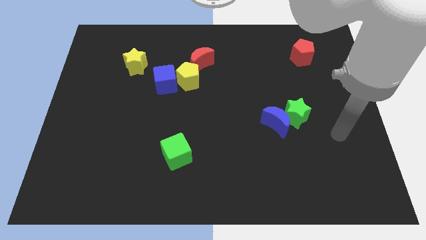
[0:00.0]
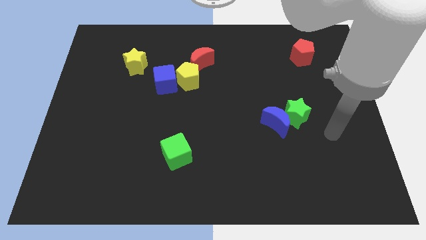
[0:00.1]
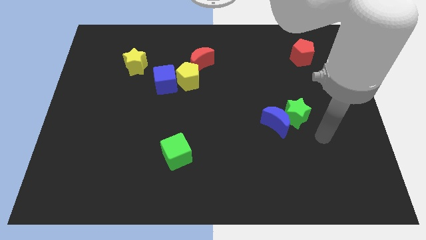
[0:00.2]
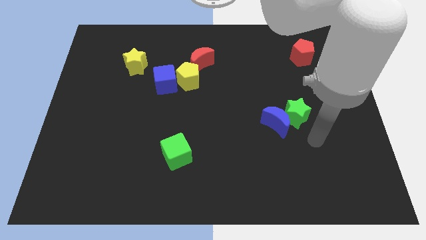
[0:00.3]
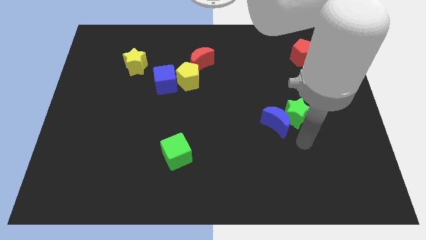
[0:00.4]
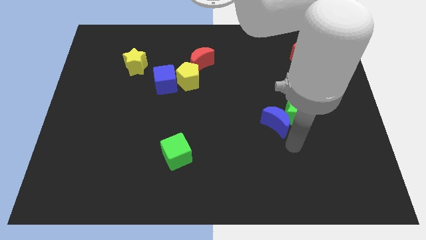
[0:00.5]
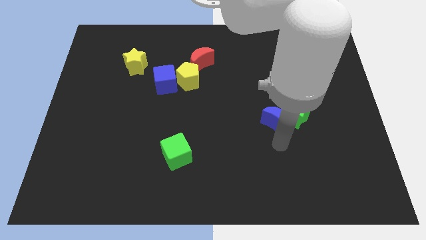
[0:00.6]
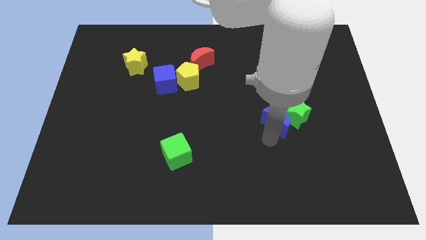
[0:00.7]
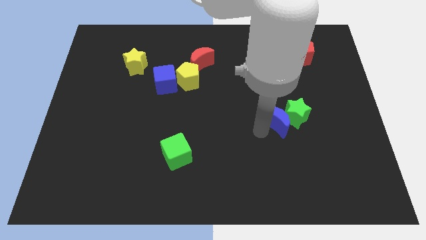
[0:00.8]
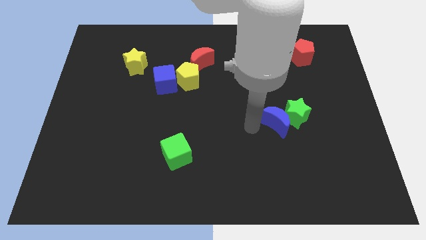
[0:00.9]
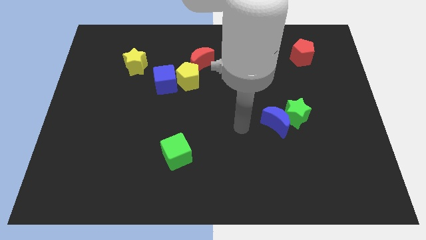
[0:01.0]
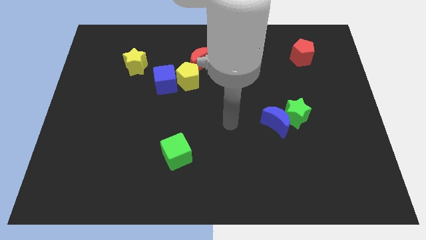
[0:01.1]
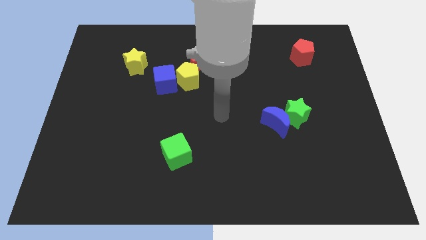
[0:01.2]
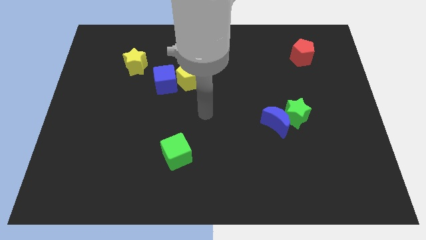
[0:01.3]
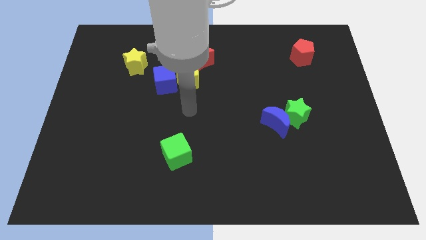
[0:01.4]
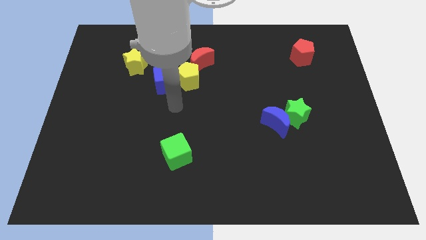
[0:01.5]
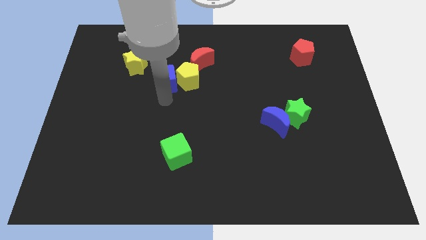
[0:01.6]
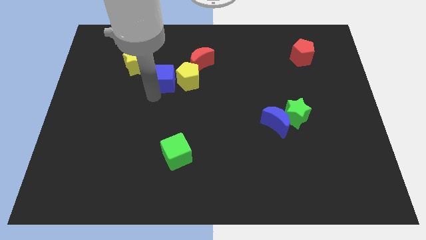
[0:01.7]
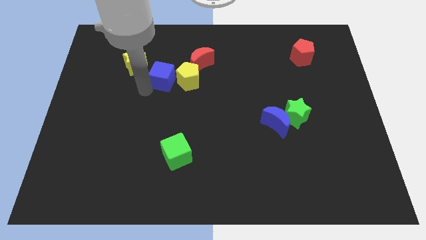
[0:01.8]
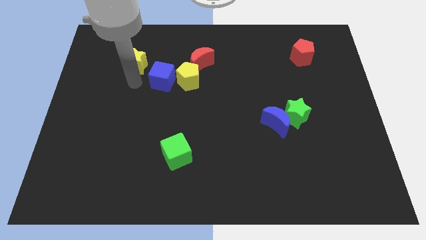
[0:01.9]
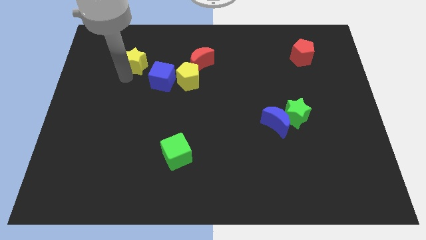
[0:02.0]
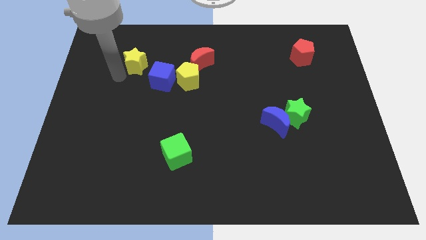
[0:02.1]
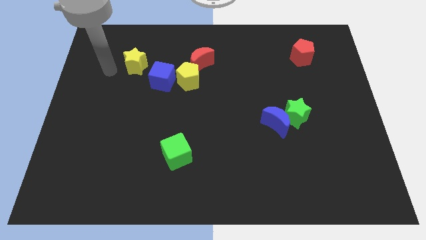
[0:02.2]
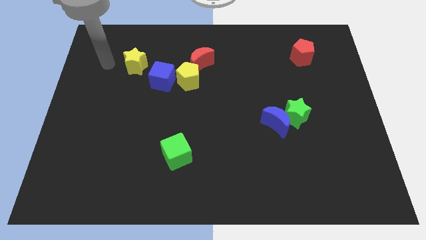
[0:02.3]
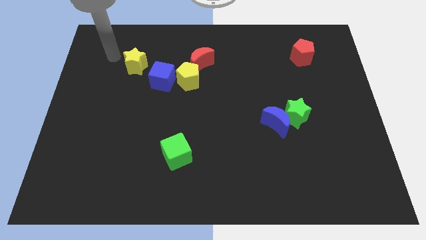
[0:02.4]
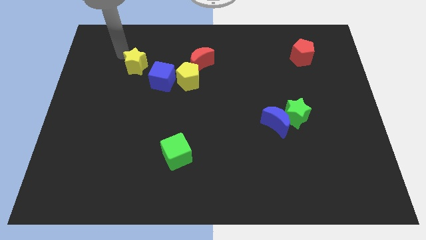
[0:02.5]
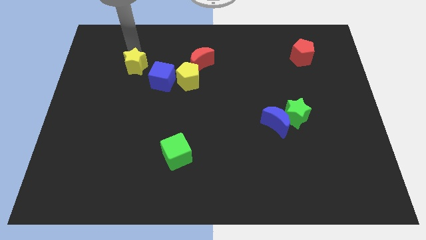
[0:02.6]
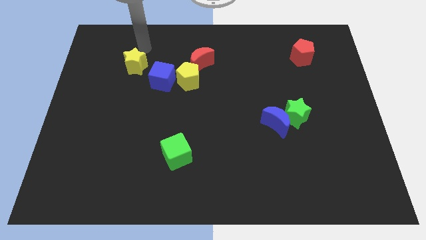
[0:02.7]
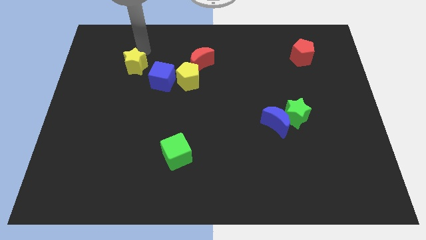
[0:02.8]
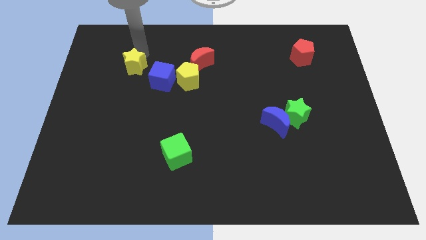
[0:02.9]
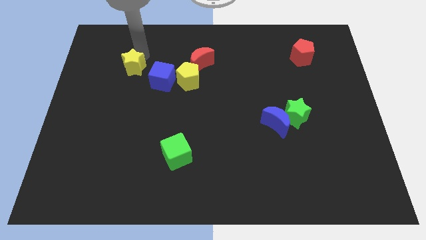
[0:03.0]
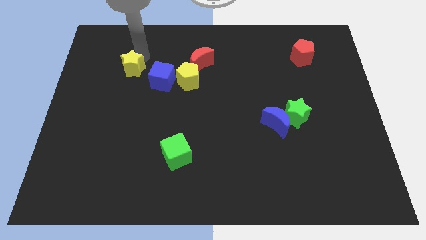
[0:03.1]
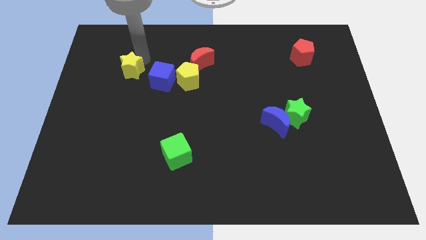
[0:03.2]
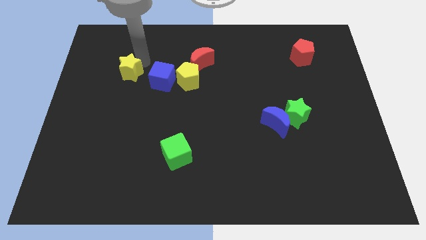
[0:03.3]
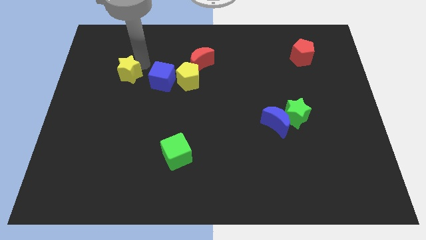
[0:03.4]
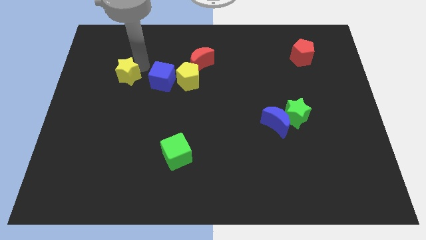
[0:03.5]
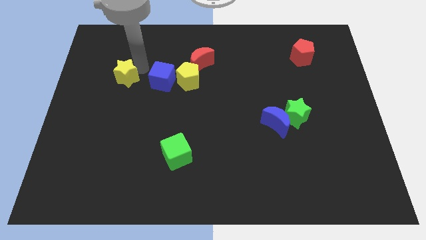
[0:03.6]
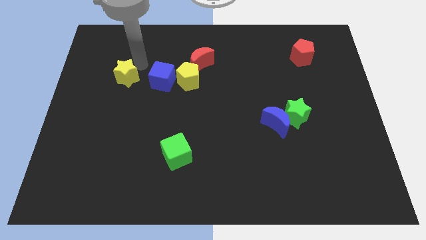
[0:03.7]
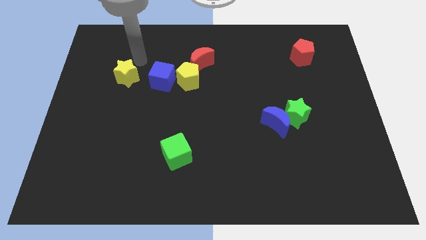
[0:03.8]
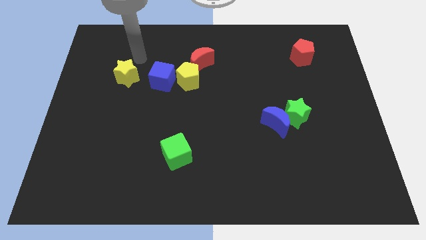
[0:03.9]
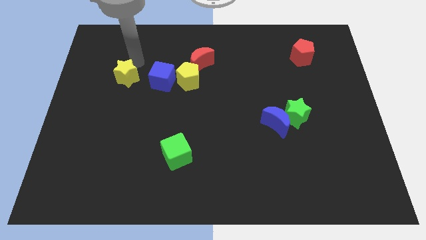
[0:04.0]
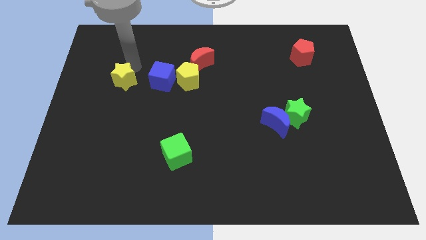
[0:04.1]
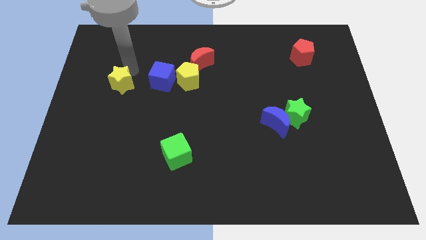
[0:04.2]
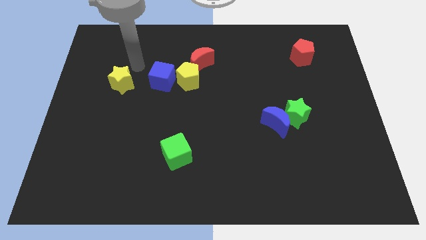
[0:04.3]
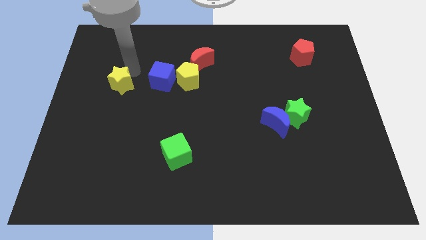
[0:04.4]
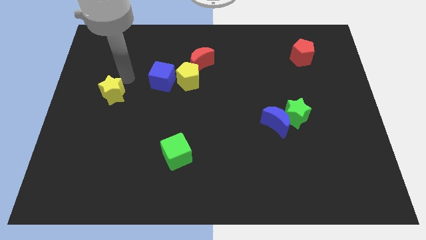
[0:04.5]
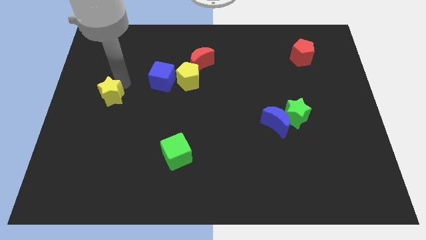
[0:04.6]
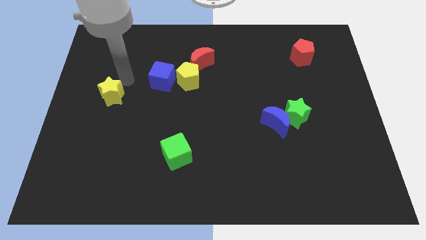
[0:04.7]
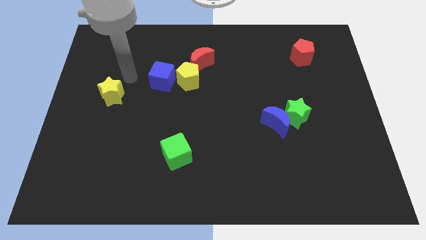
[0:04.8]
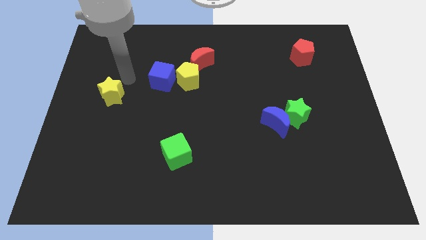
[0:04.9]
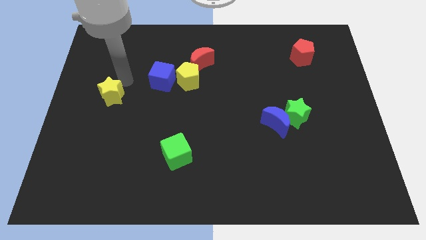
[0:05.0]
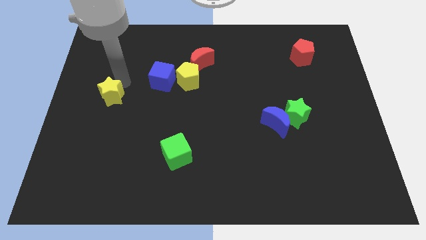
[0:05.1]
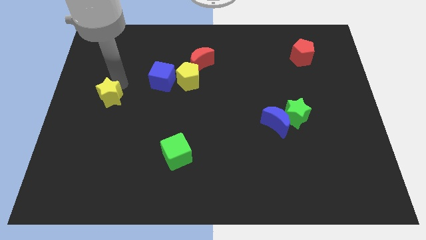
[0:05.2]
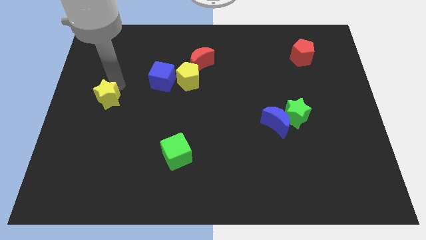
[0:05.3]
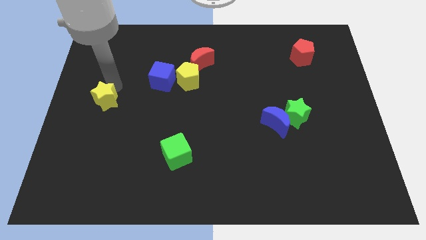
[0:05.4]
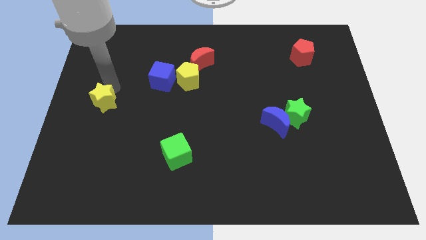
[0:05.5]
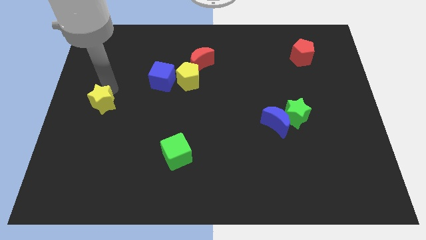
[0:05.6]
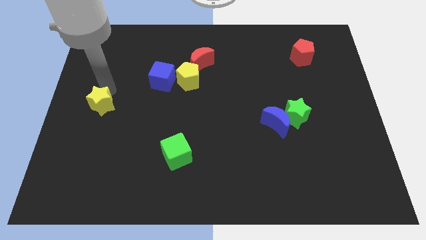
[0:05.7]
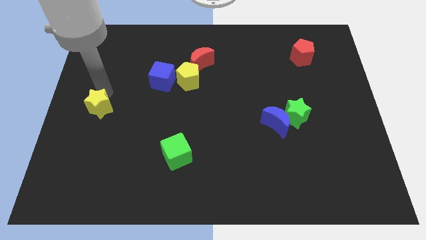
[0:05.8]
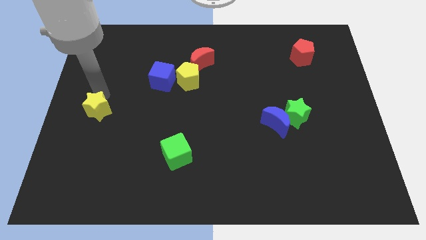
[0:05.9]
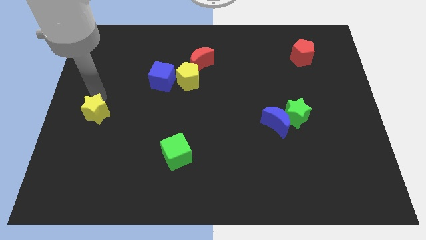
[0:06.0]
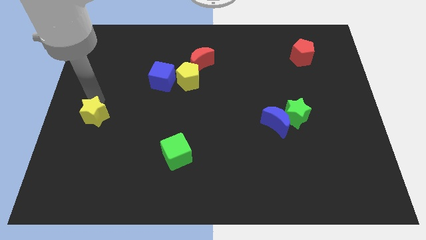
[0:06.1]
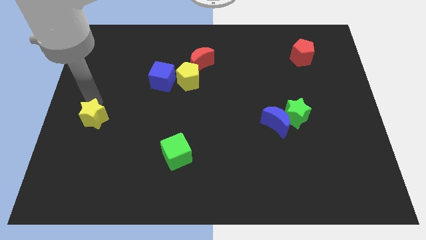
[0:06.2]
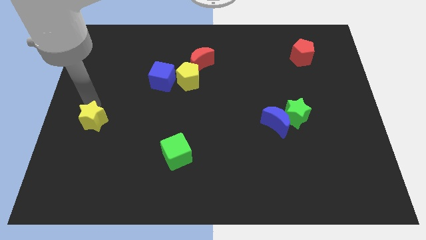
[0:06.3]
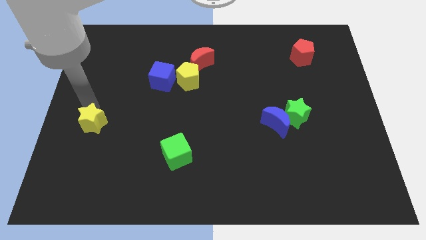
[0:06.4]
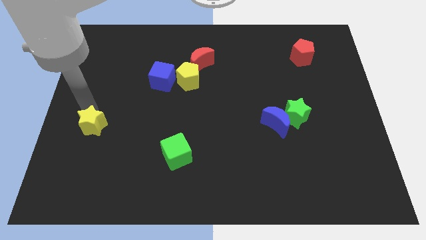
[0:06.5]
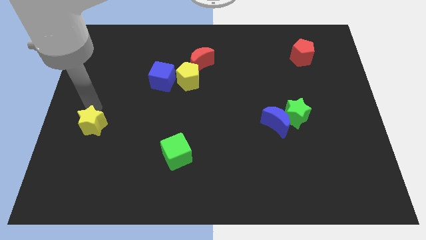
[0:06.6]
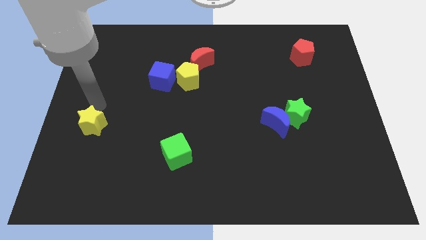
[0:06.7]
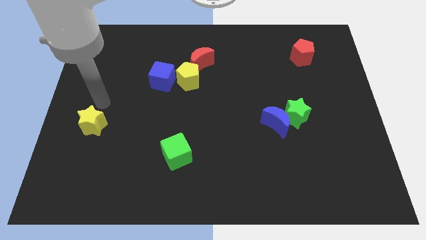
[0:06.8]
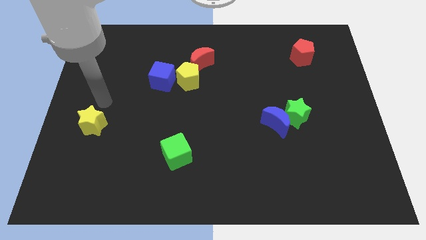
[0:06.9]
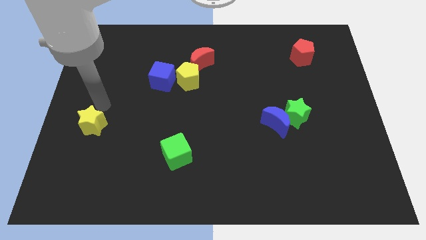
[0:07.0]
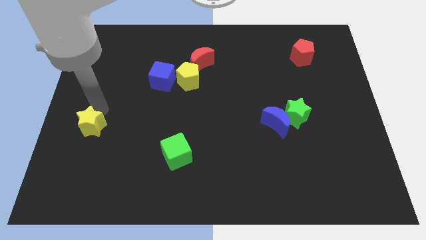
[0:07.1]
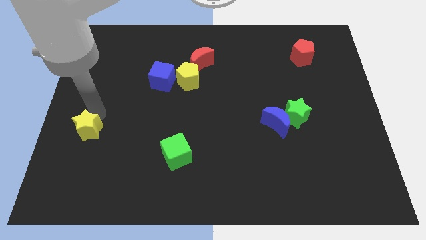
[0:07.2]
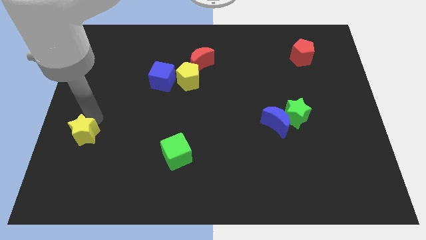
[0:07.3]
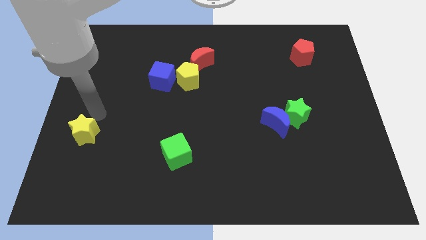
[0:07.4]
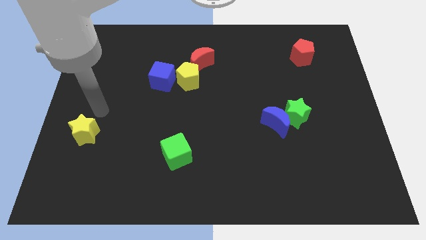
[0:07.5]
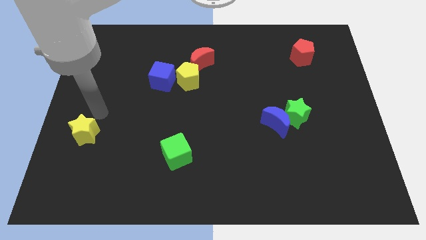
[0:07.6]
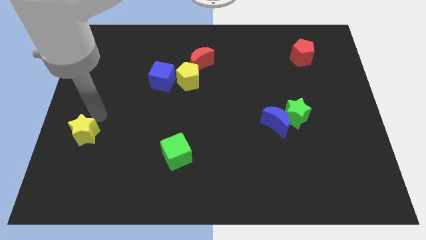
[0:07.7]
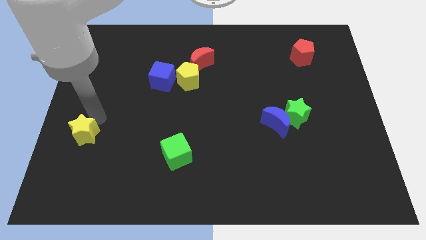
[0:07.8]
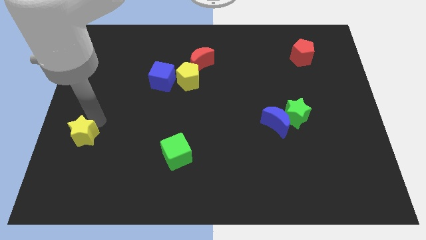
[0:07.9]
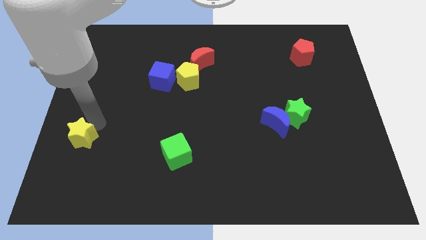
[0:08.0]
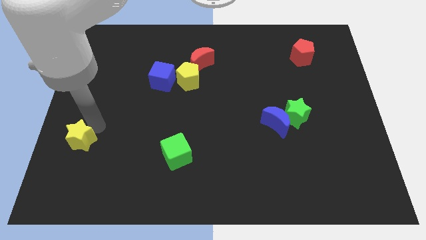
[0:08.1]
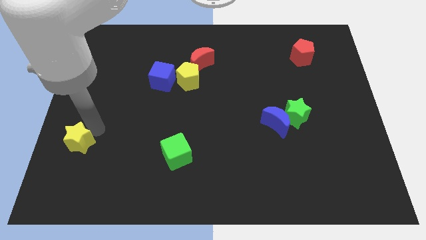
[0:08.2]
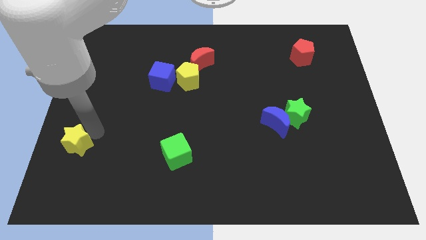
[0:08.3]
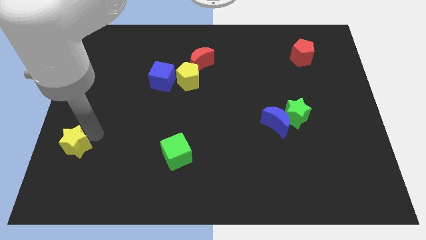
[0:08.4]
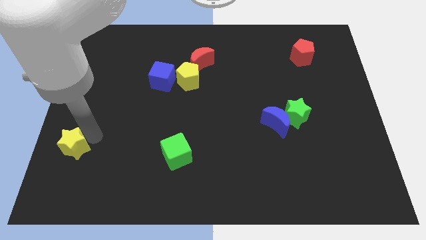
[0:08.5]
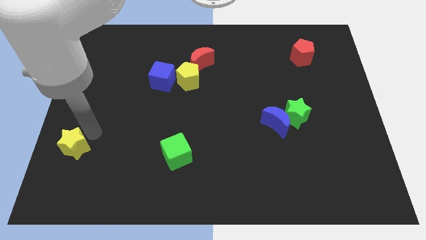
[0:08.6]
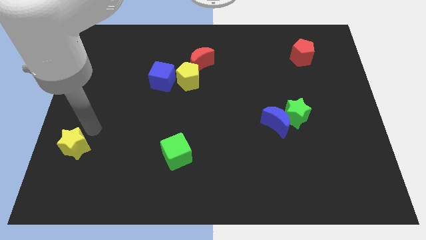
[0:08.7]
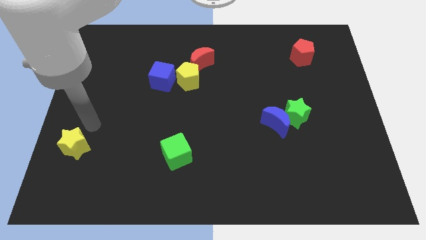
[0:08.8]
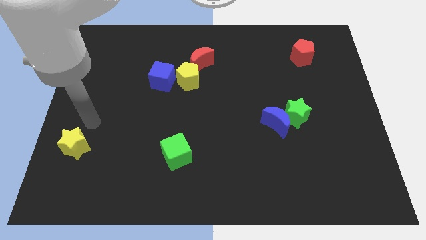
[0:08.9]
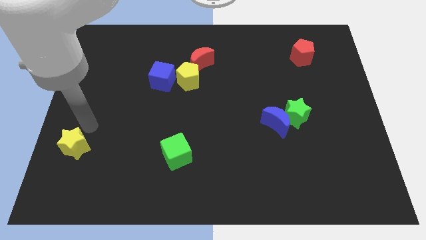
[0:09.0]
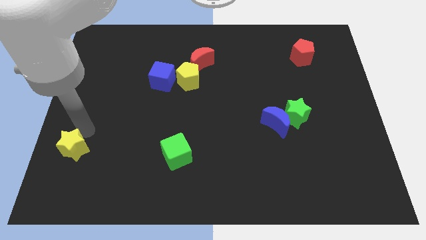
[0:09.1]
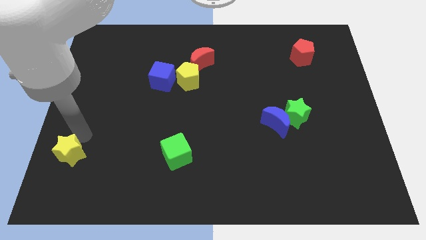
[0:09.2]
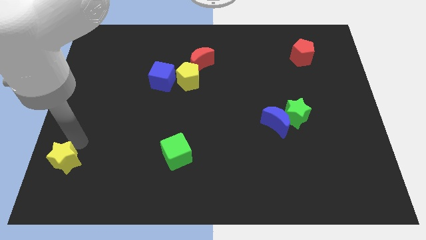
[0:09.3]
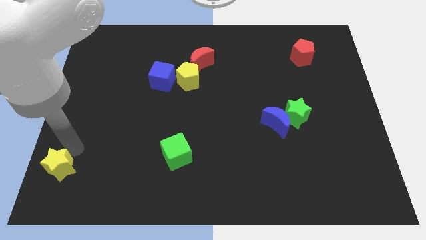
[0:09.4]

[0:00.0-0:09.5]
slide the yellow star to the bottom left
